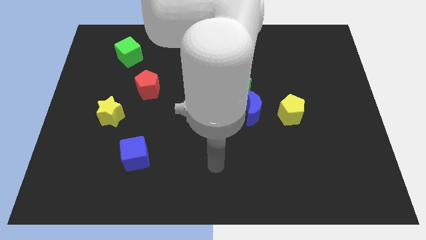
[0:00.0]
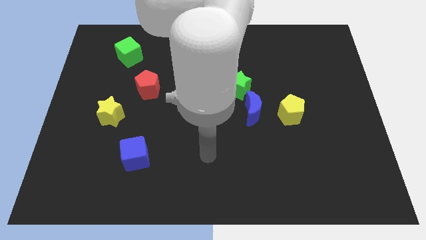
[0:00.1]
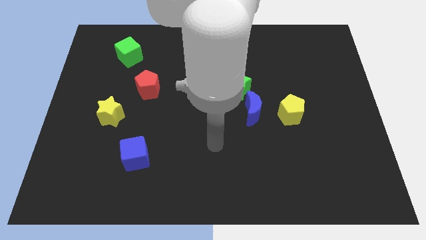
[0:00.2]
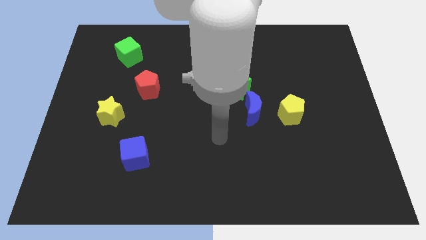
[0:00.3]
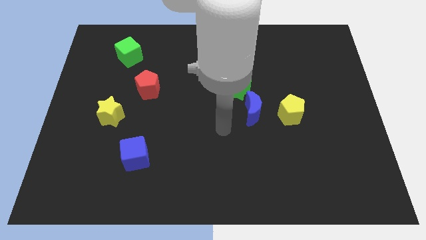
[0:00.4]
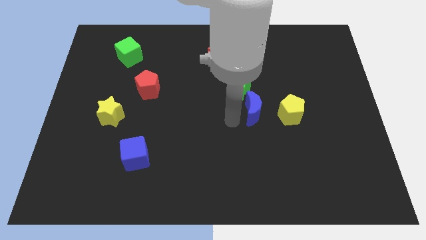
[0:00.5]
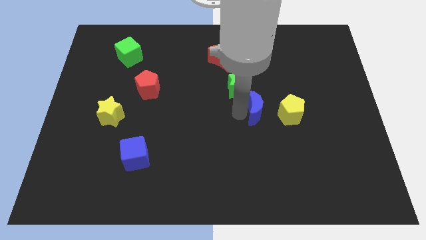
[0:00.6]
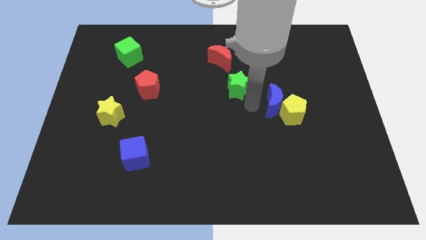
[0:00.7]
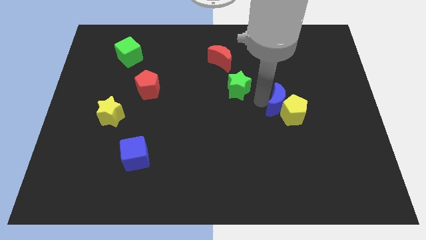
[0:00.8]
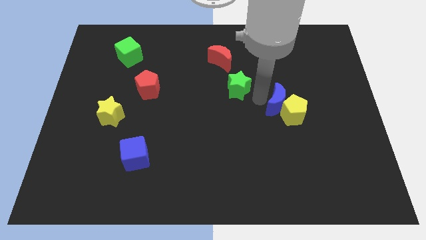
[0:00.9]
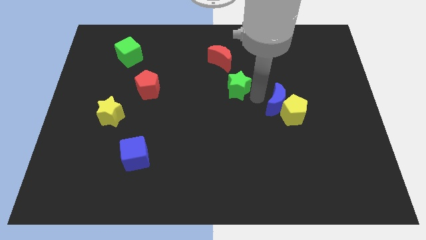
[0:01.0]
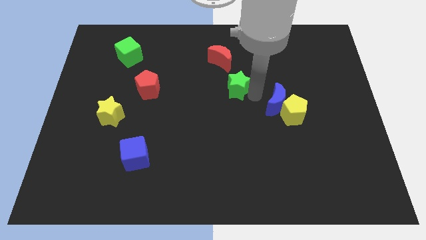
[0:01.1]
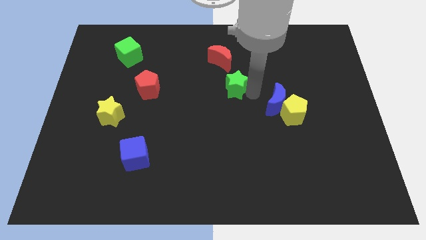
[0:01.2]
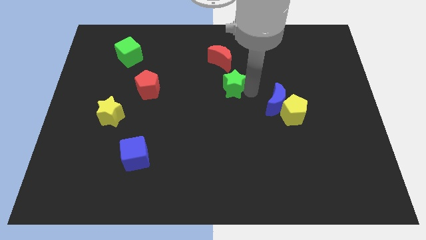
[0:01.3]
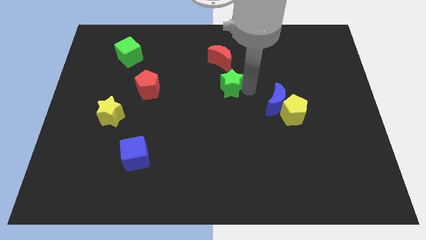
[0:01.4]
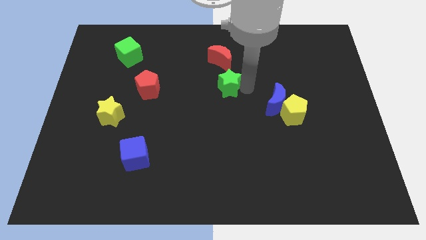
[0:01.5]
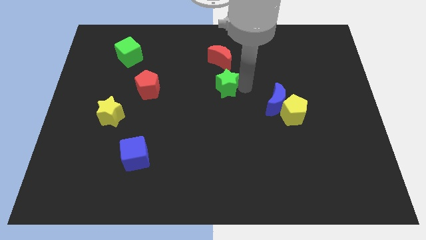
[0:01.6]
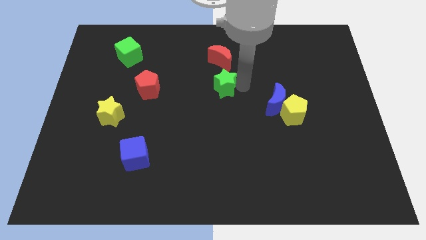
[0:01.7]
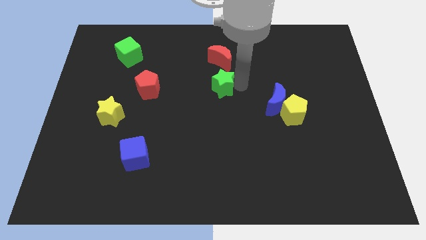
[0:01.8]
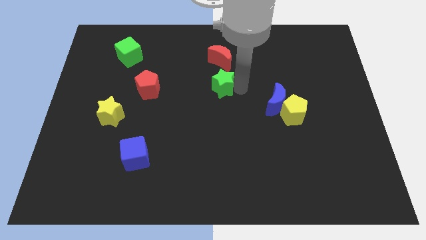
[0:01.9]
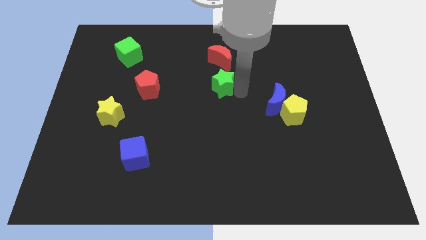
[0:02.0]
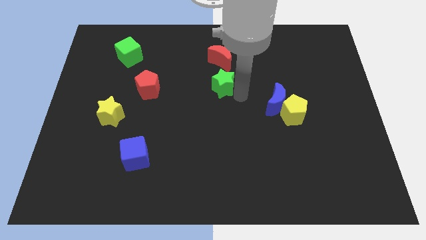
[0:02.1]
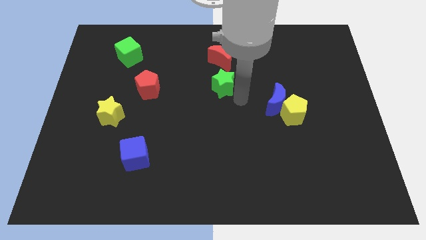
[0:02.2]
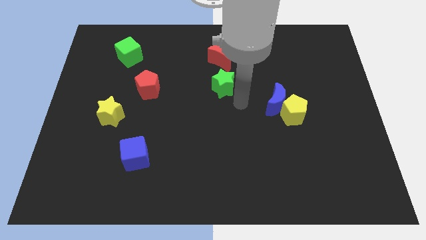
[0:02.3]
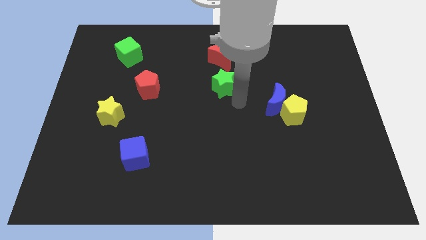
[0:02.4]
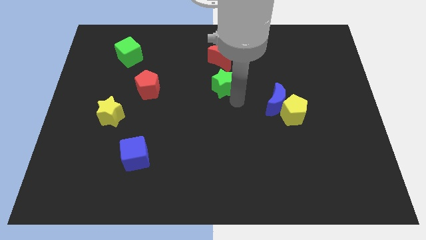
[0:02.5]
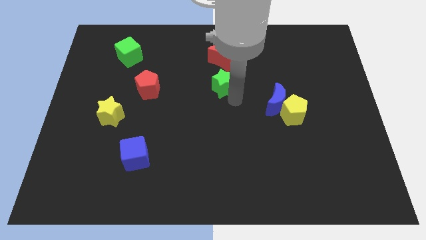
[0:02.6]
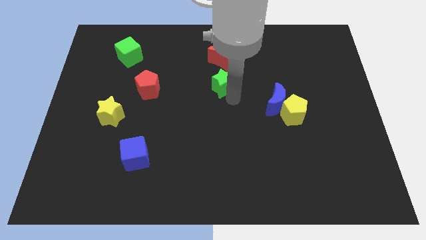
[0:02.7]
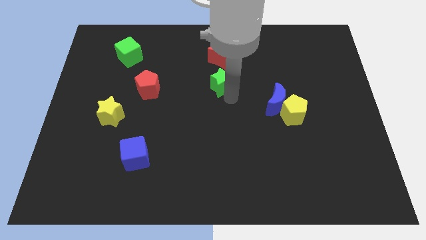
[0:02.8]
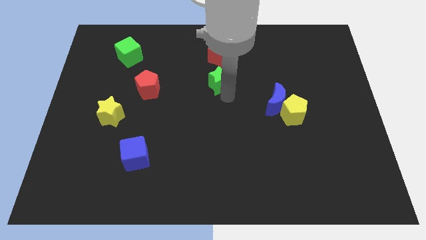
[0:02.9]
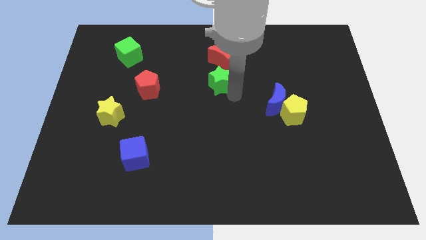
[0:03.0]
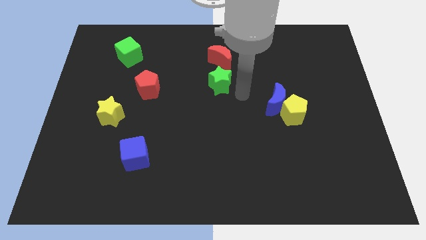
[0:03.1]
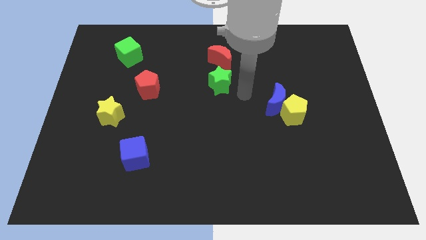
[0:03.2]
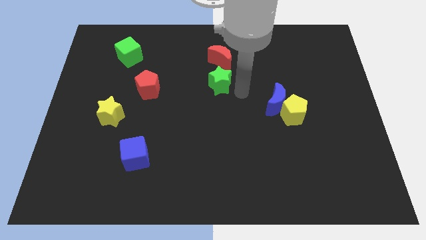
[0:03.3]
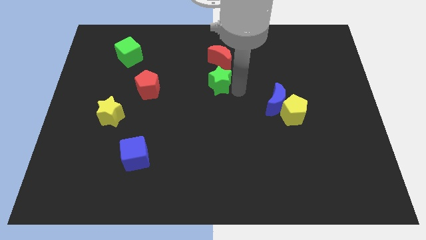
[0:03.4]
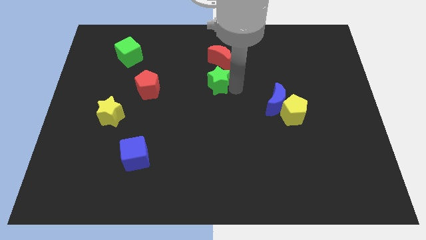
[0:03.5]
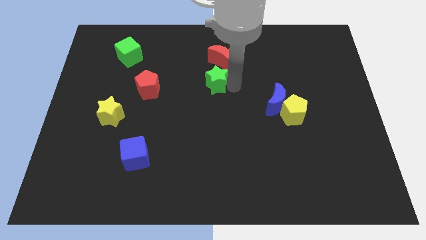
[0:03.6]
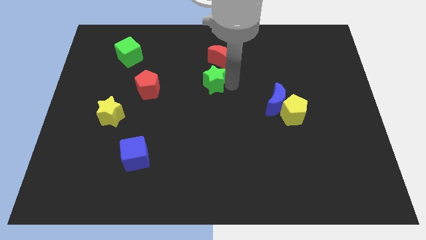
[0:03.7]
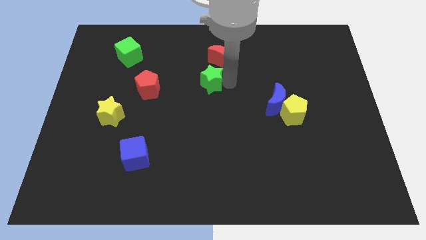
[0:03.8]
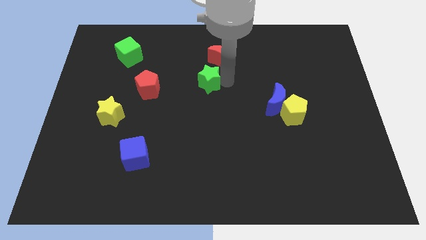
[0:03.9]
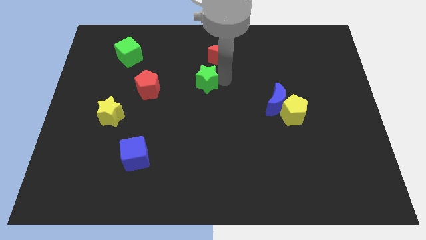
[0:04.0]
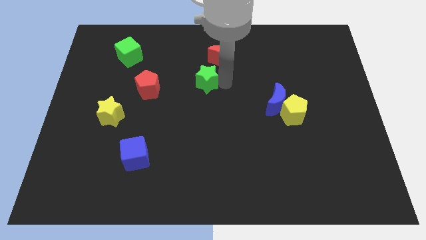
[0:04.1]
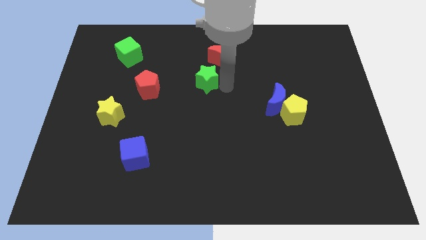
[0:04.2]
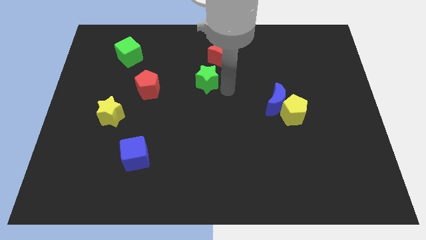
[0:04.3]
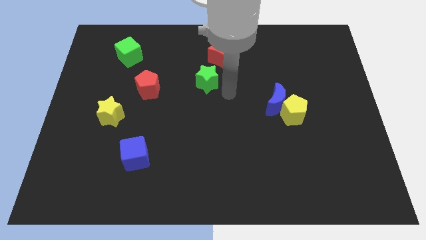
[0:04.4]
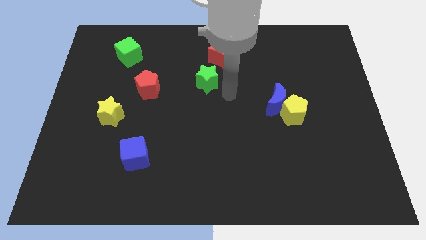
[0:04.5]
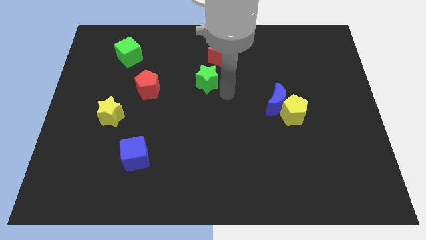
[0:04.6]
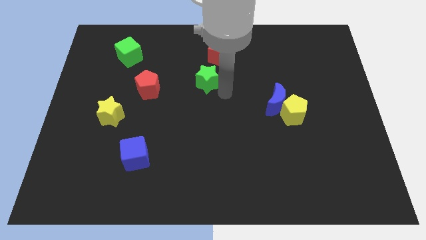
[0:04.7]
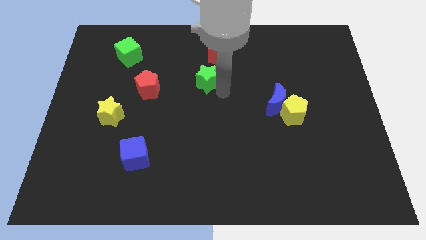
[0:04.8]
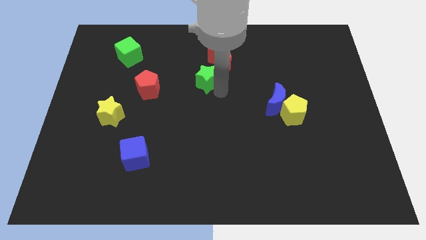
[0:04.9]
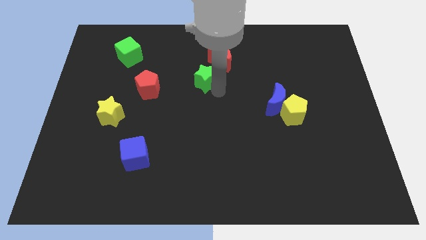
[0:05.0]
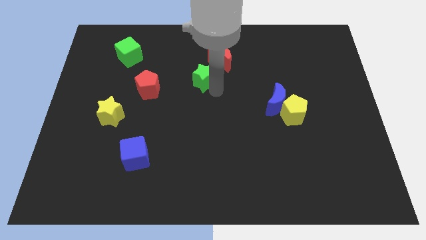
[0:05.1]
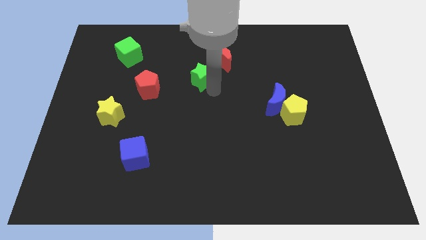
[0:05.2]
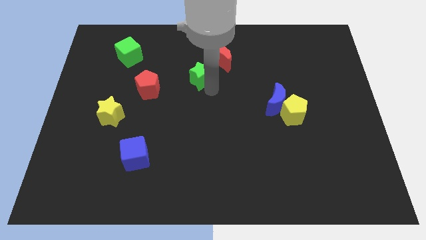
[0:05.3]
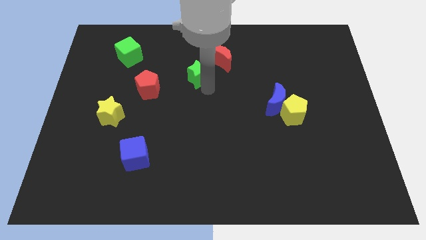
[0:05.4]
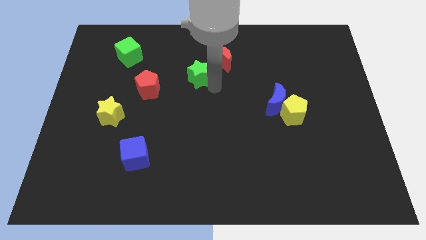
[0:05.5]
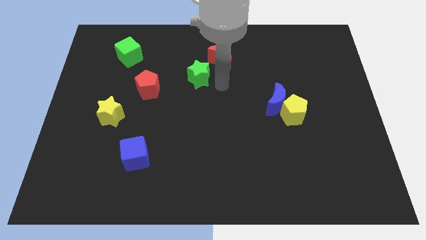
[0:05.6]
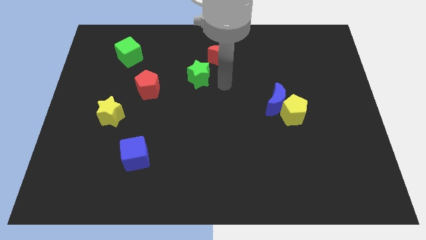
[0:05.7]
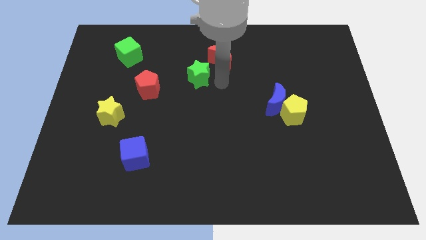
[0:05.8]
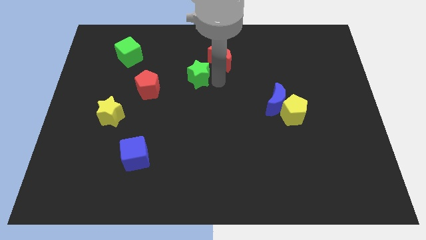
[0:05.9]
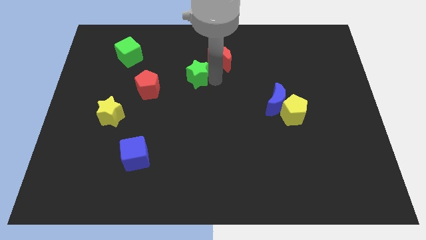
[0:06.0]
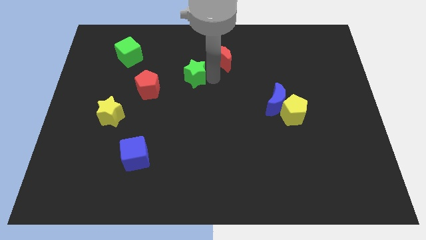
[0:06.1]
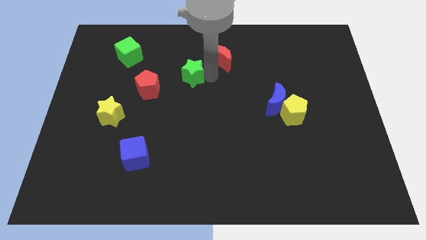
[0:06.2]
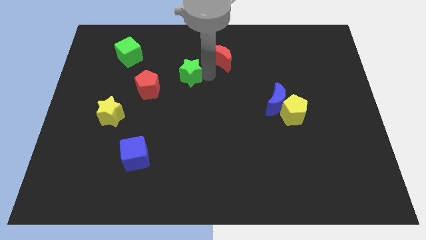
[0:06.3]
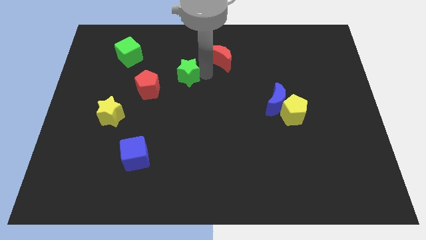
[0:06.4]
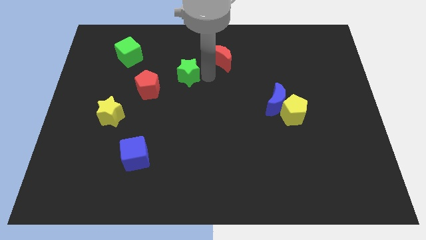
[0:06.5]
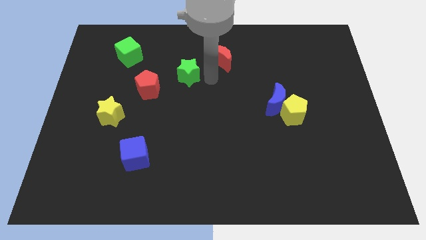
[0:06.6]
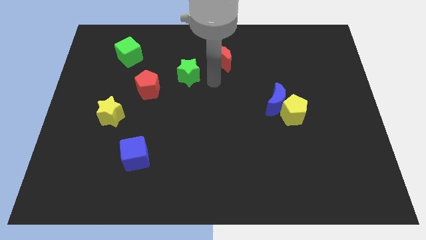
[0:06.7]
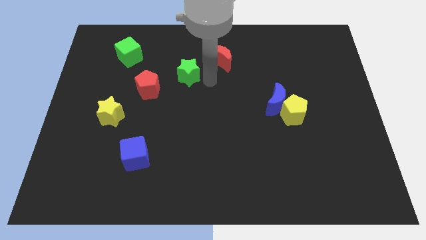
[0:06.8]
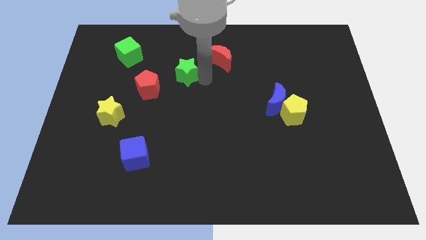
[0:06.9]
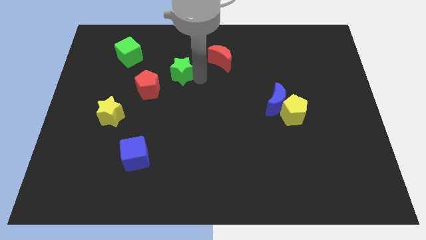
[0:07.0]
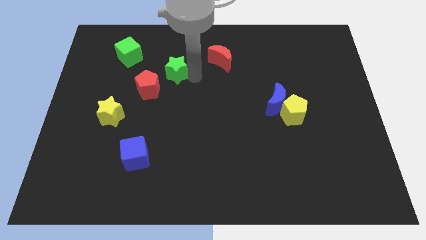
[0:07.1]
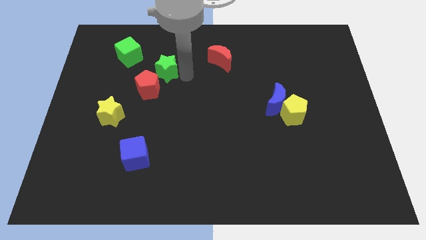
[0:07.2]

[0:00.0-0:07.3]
put the green star above the red pentagon
